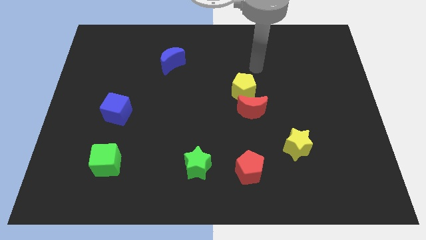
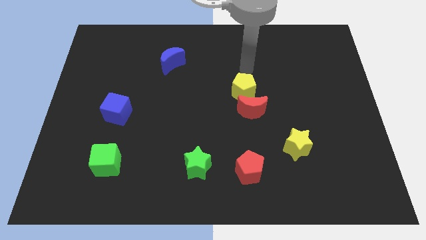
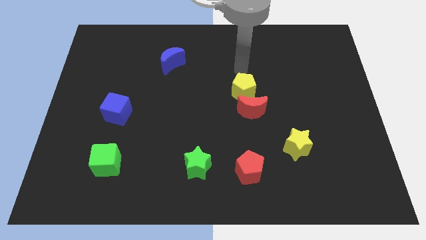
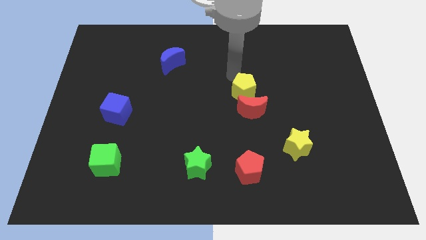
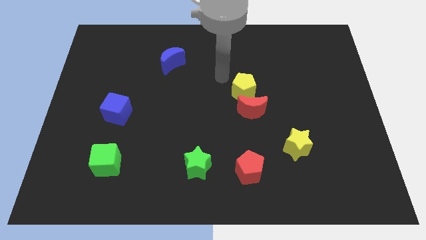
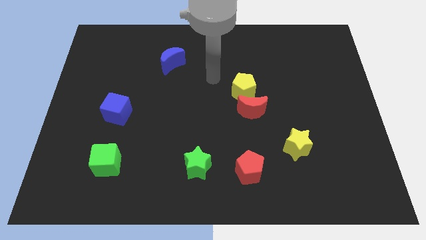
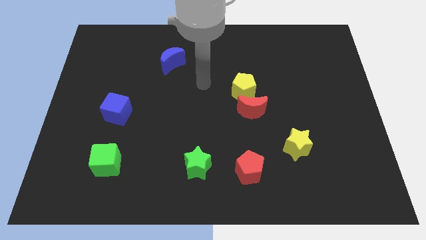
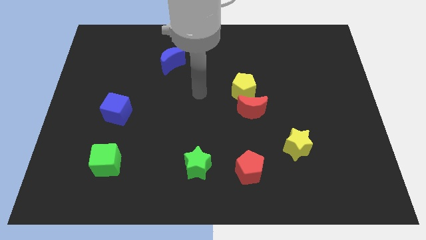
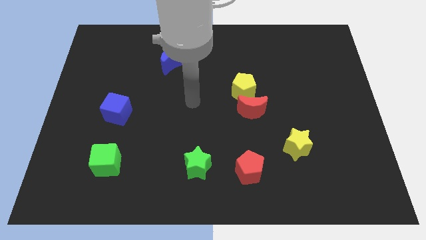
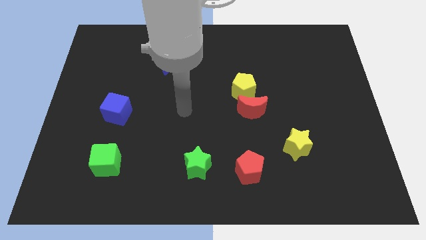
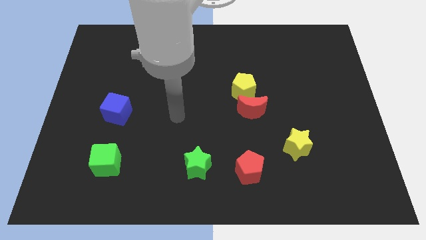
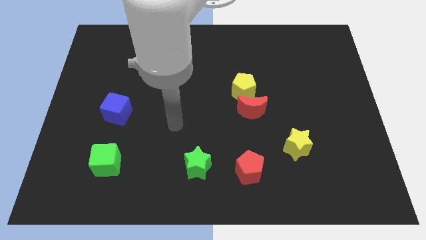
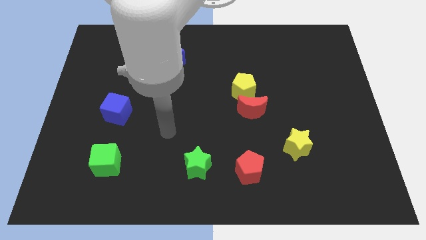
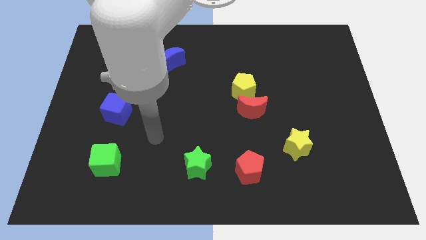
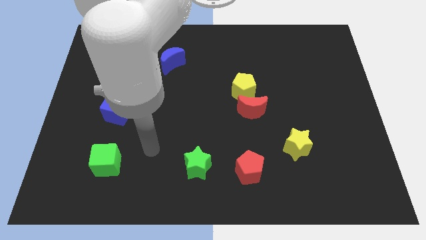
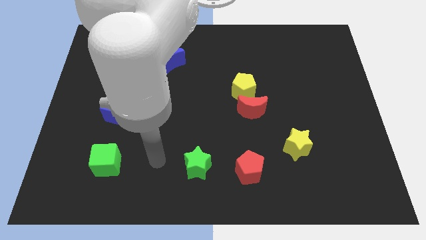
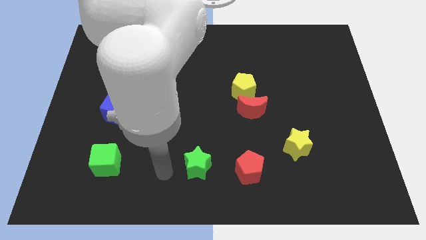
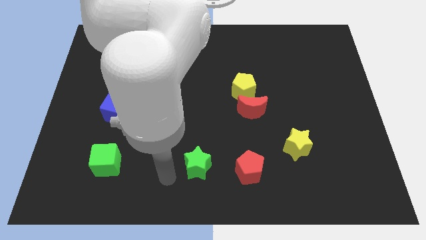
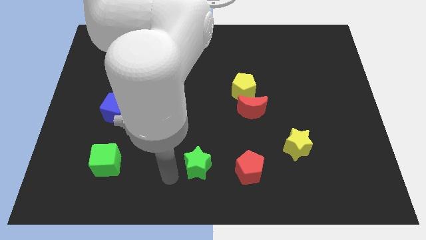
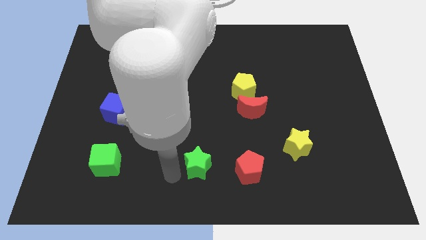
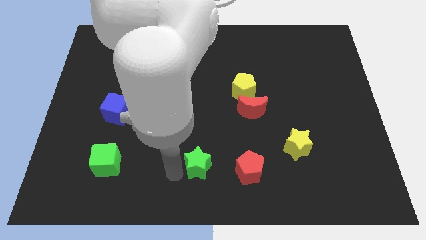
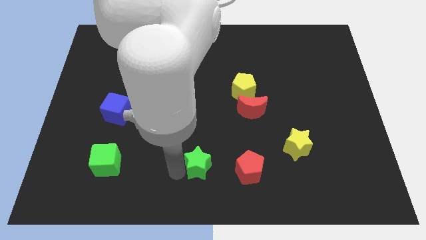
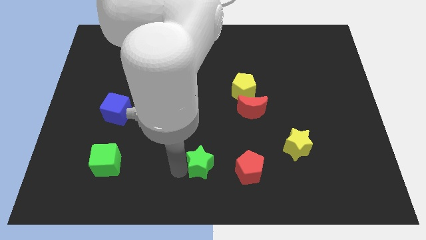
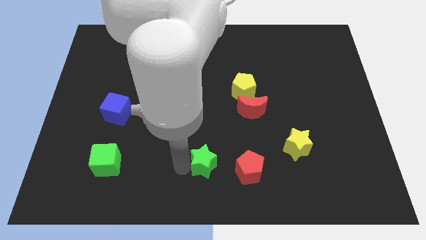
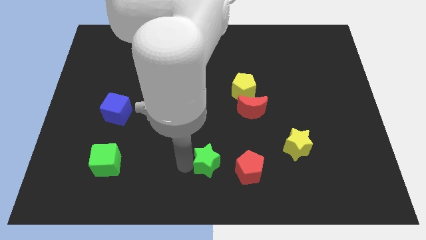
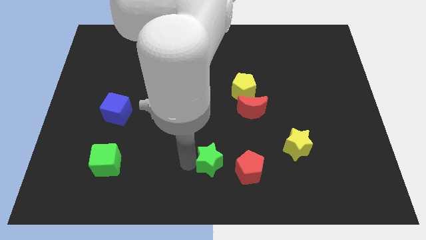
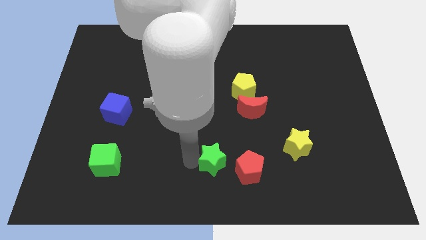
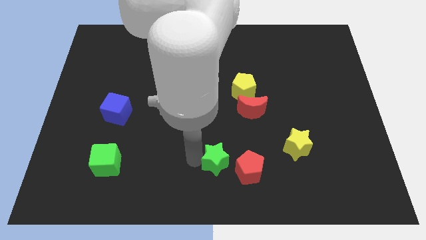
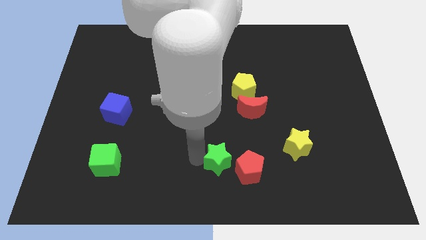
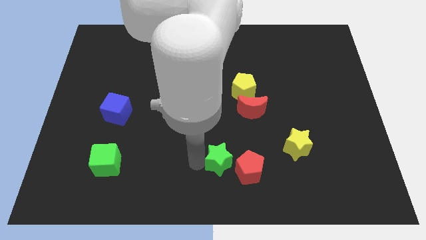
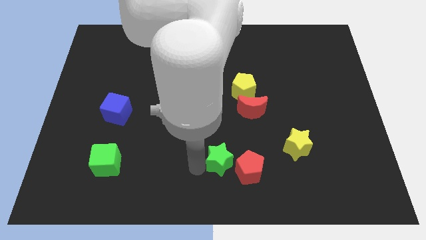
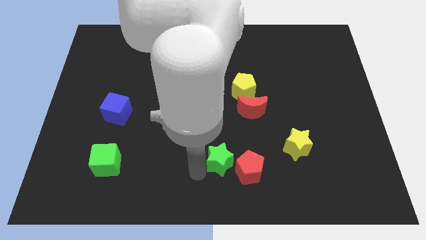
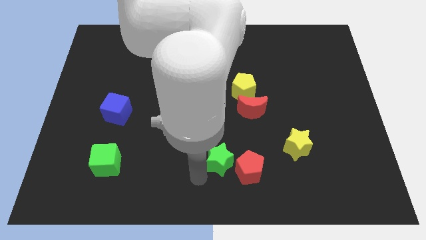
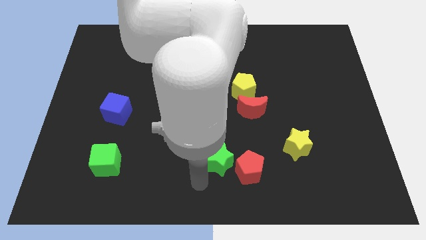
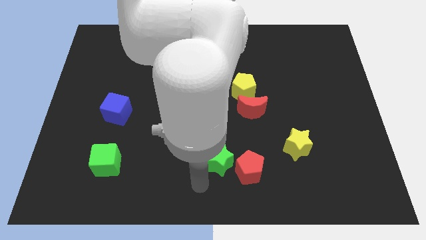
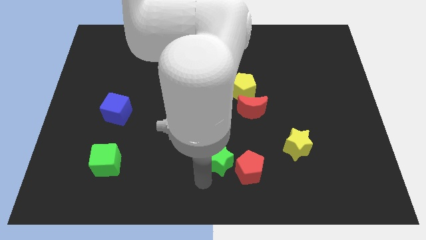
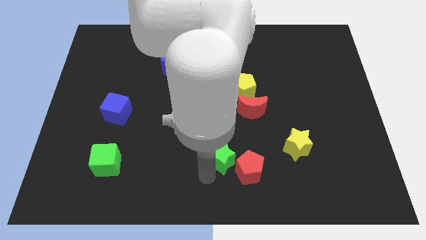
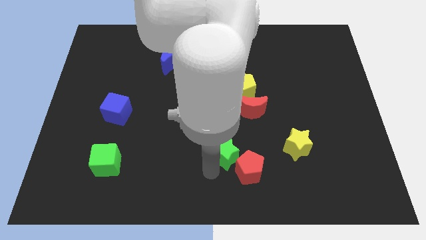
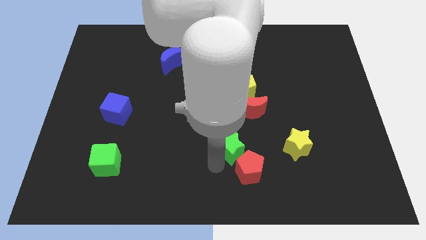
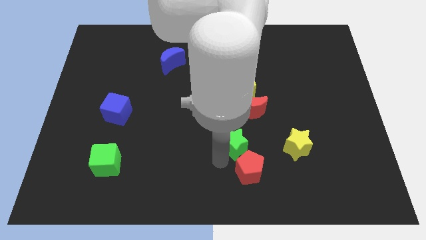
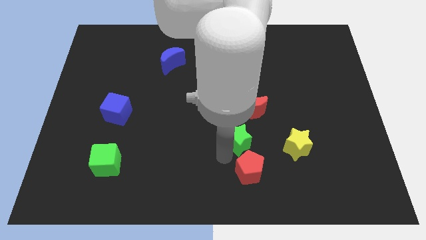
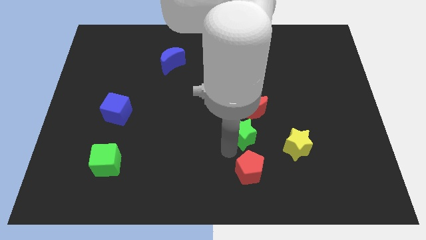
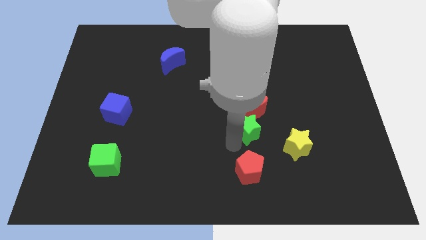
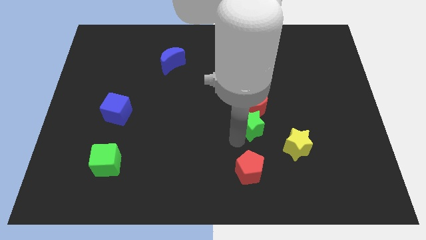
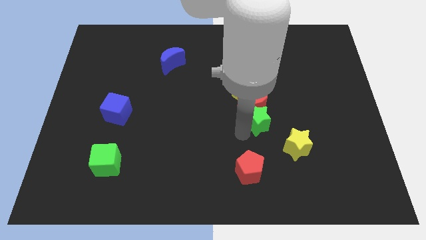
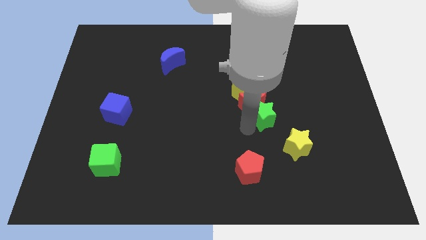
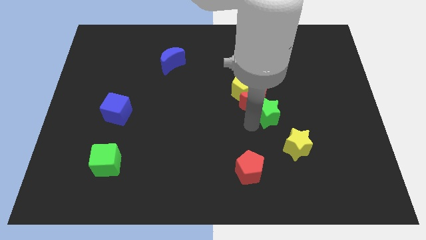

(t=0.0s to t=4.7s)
slide the green star upwards and right diagonally

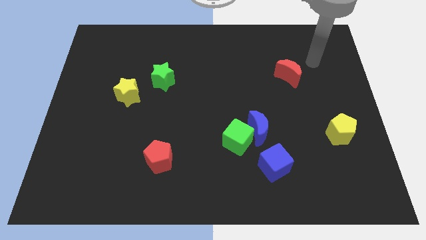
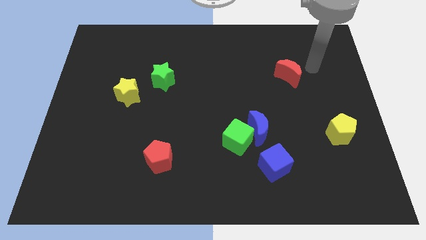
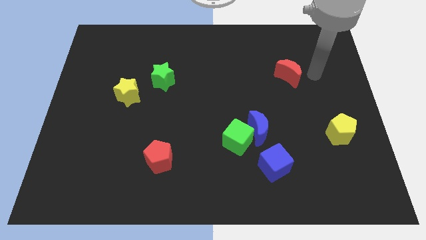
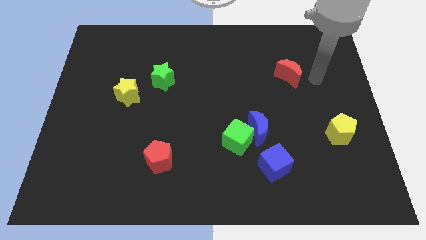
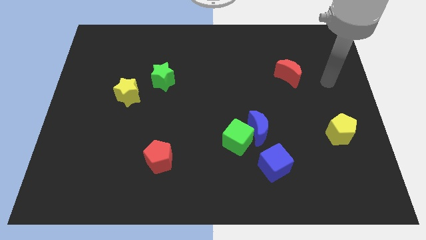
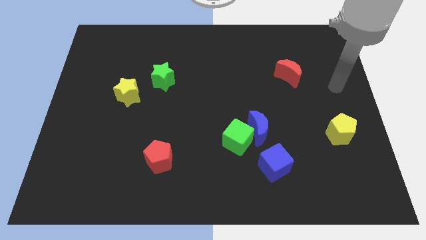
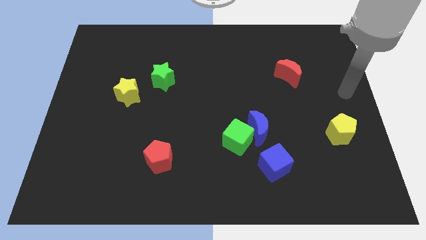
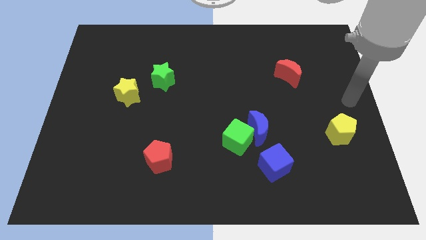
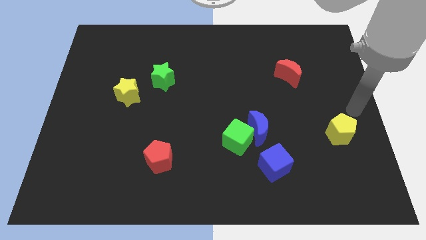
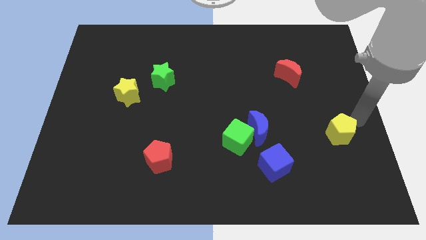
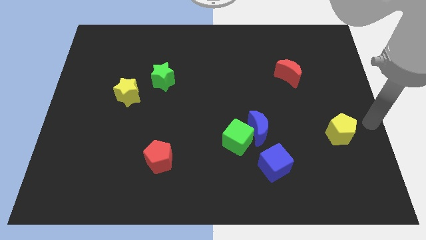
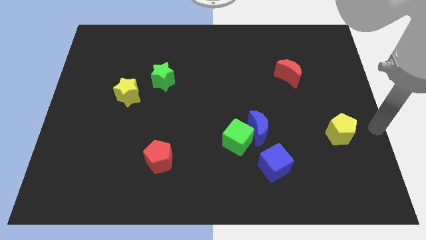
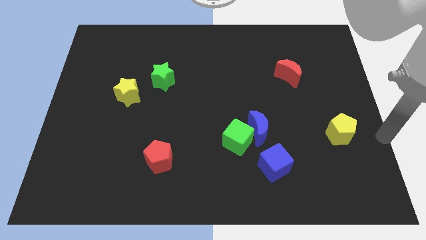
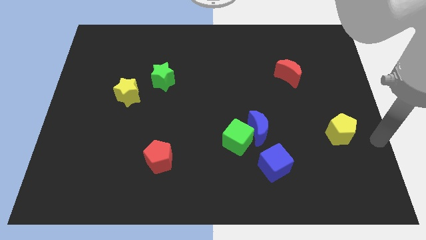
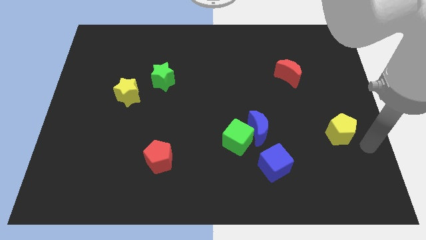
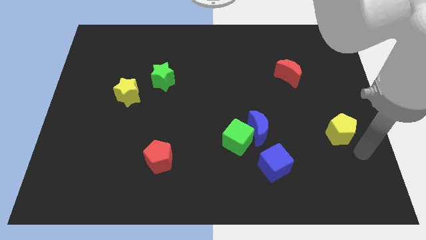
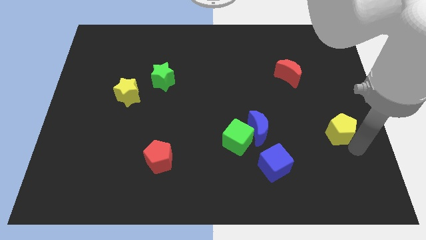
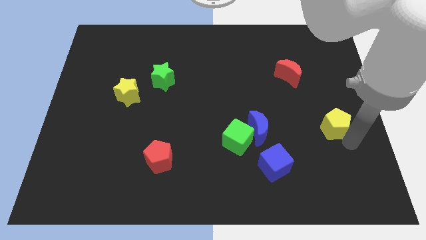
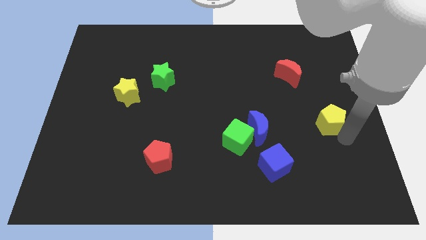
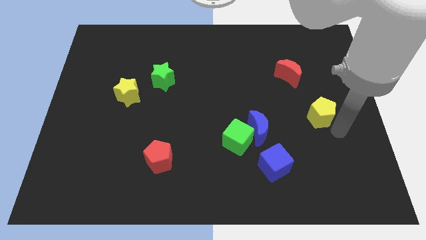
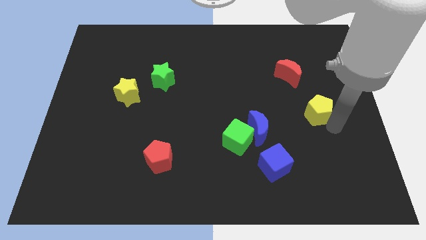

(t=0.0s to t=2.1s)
slightly slide the yellow pentagon upwards and then to the left

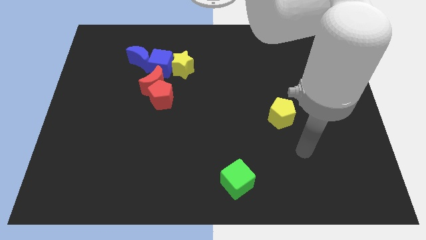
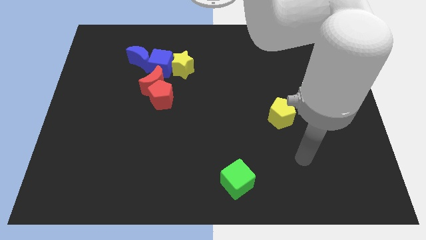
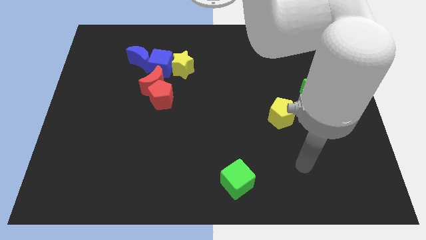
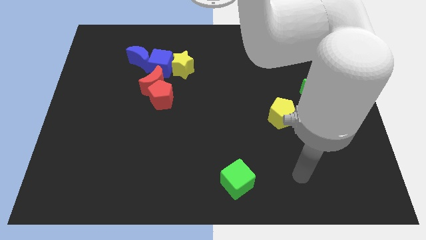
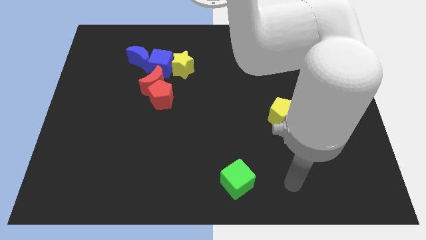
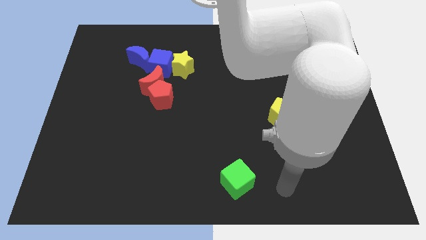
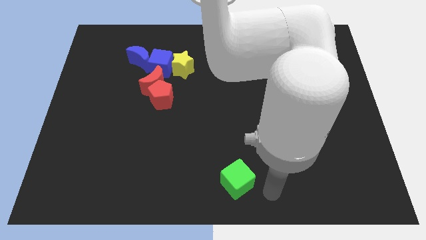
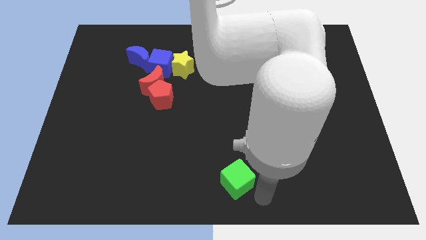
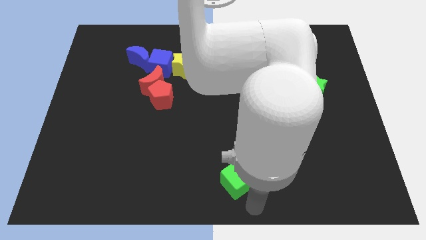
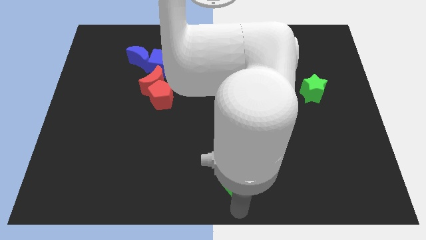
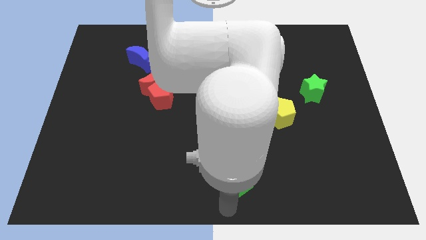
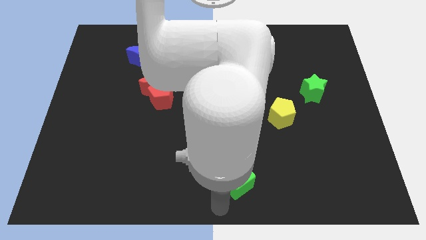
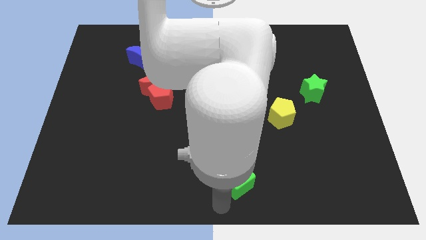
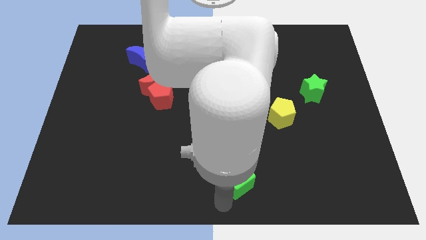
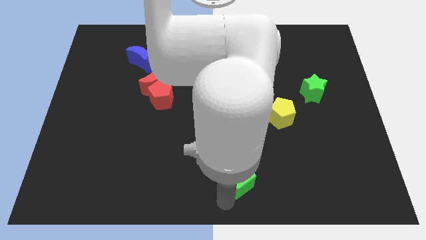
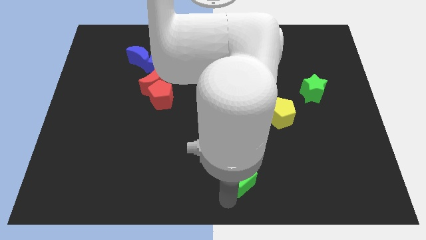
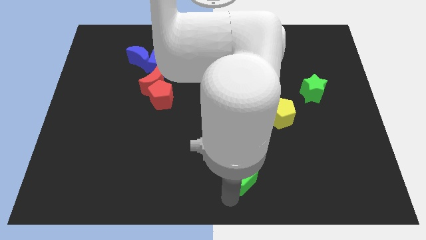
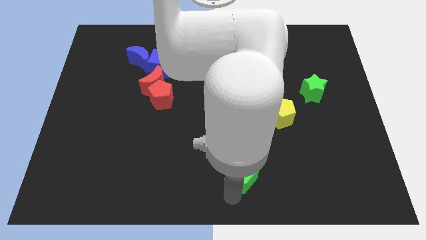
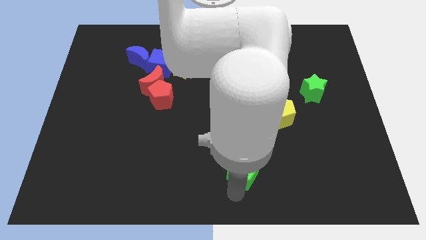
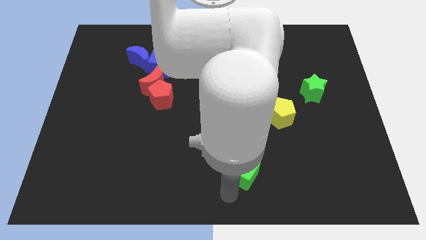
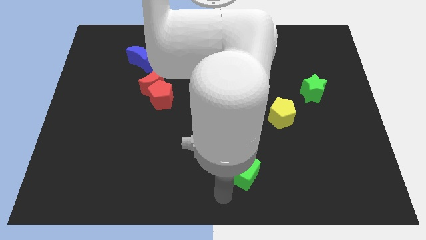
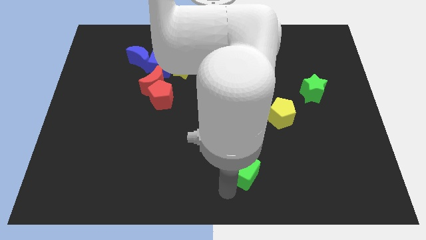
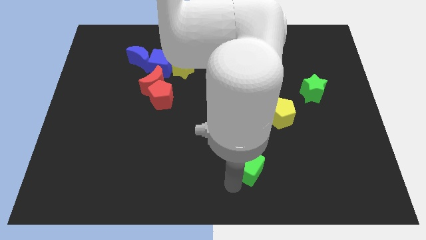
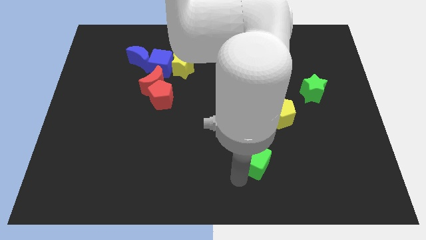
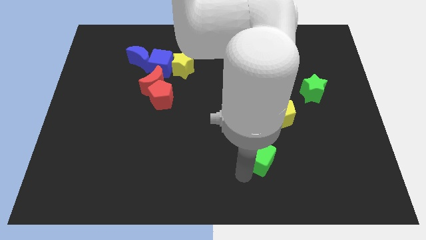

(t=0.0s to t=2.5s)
push the green cube upwards and then to the right a bit
